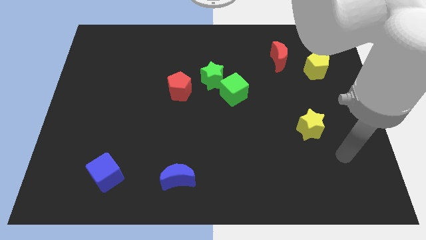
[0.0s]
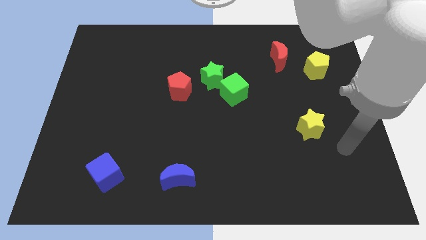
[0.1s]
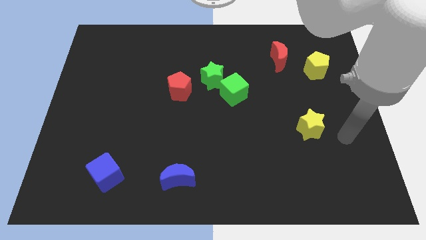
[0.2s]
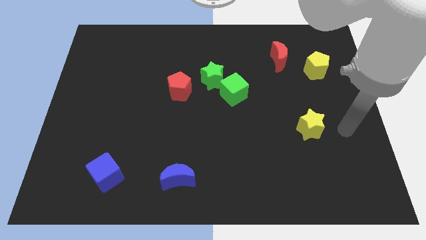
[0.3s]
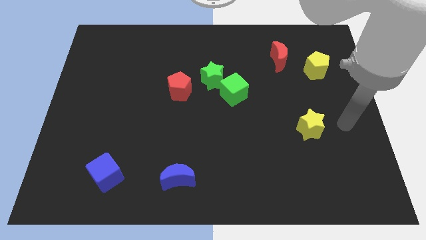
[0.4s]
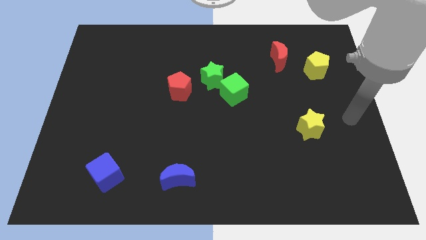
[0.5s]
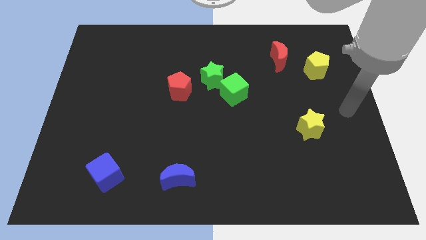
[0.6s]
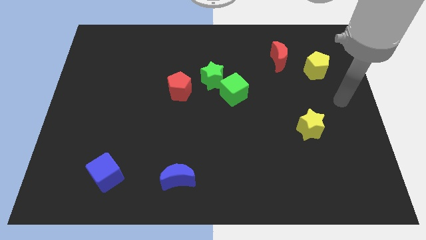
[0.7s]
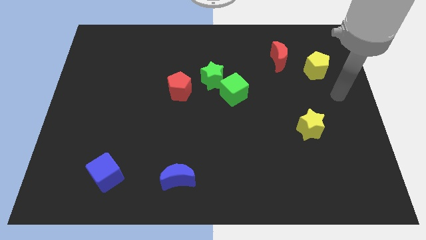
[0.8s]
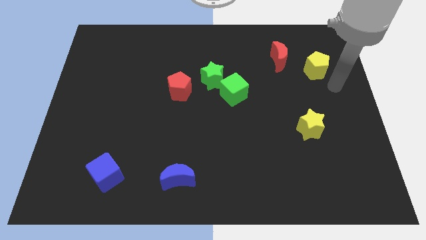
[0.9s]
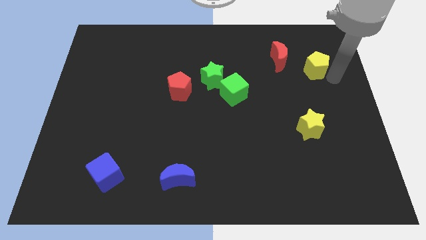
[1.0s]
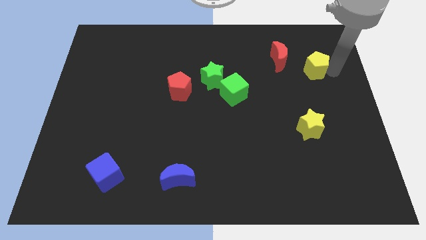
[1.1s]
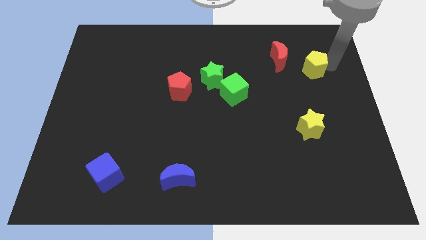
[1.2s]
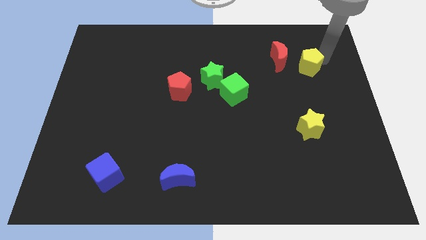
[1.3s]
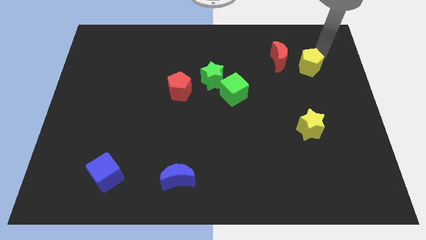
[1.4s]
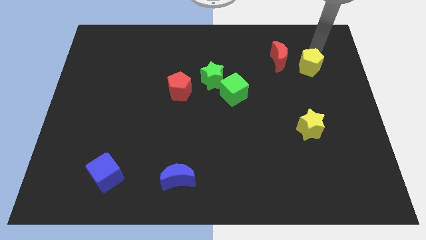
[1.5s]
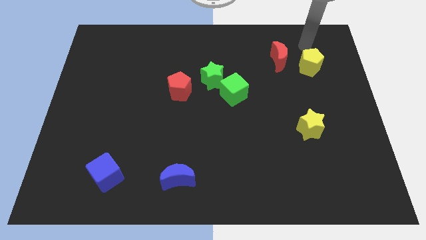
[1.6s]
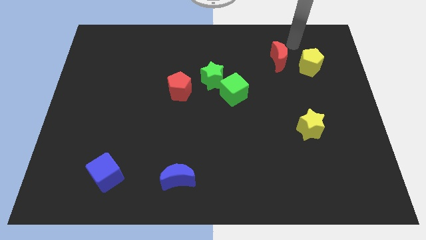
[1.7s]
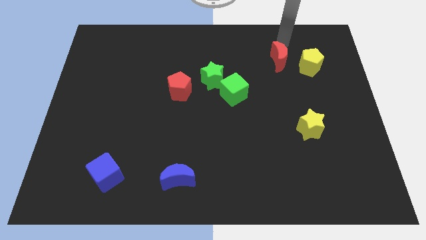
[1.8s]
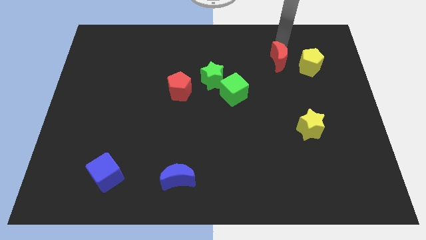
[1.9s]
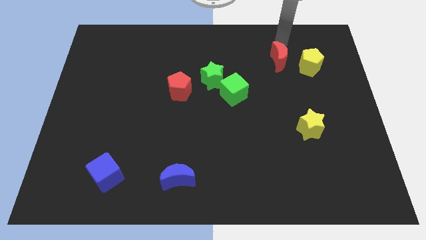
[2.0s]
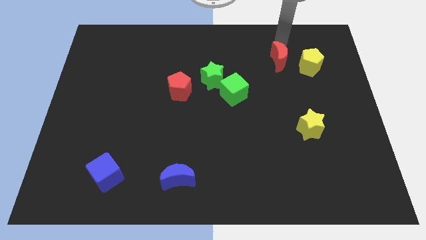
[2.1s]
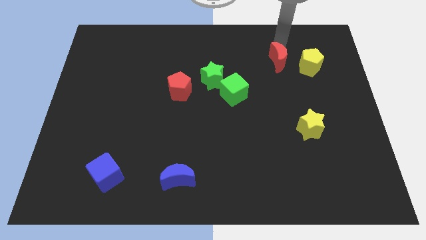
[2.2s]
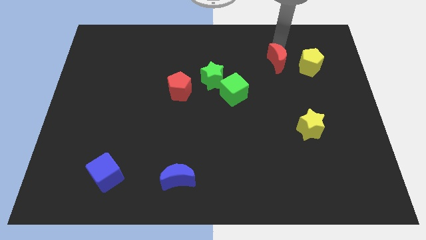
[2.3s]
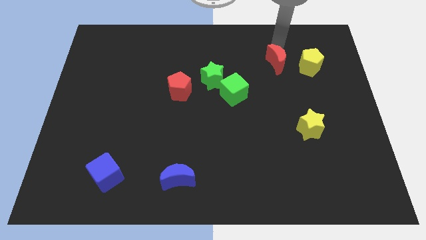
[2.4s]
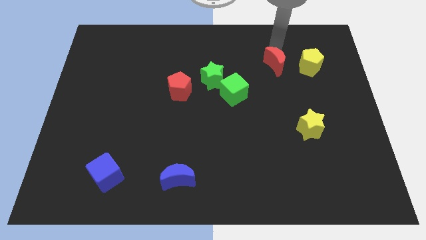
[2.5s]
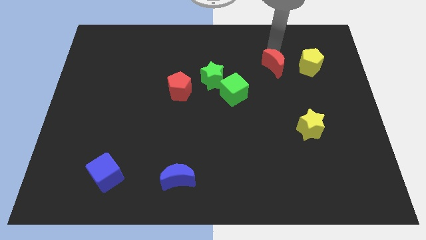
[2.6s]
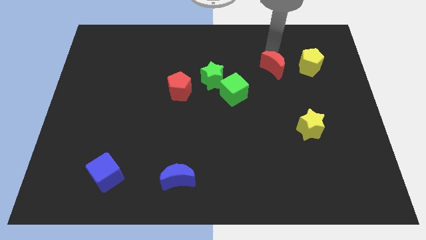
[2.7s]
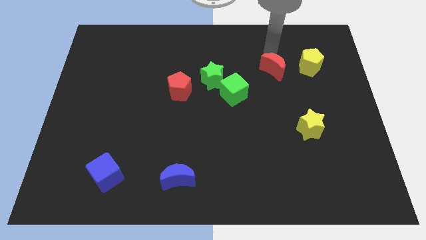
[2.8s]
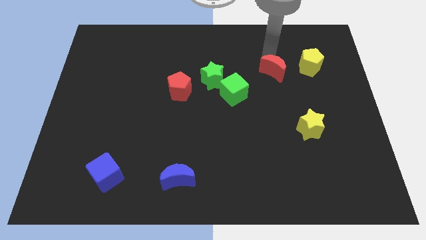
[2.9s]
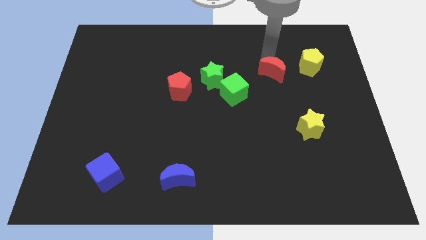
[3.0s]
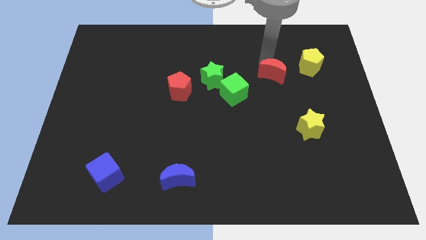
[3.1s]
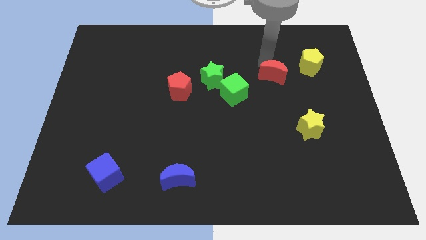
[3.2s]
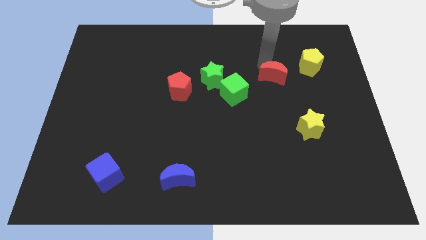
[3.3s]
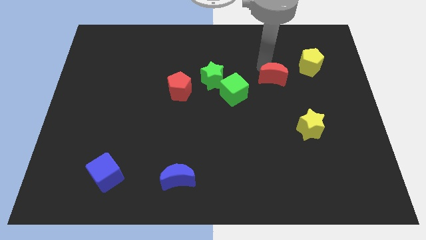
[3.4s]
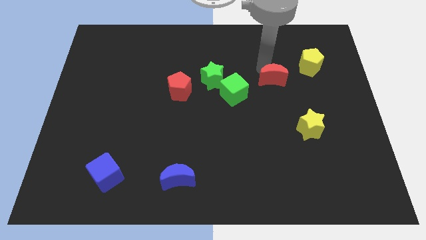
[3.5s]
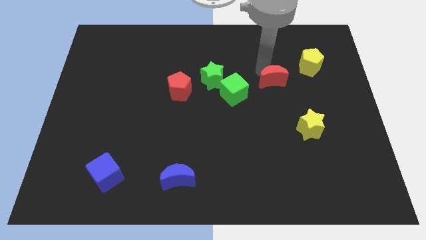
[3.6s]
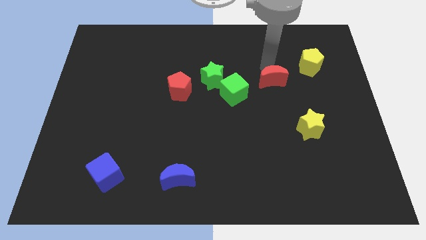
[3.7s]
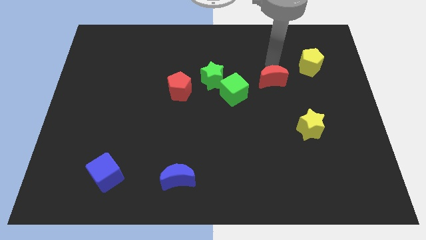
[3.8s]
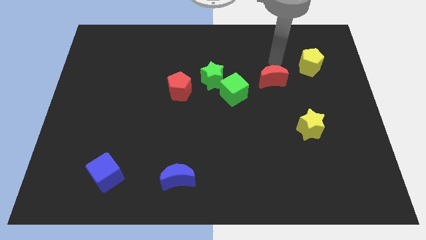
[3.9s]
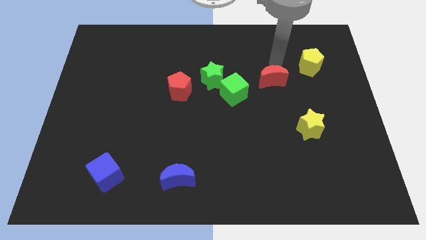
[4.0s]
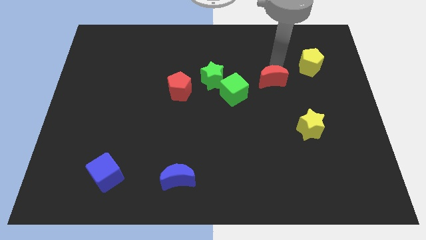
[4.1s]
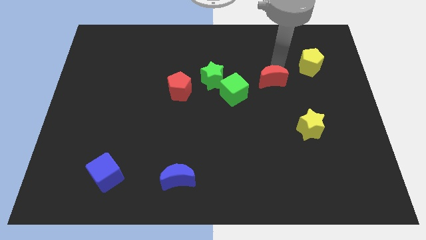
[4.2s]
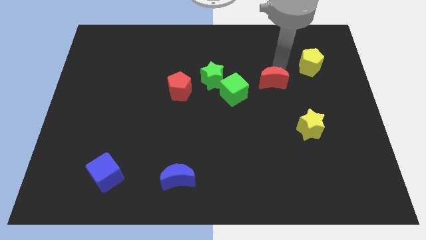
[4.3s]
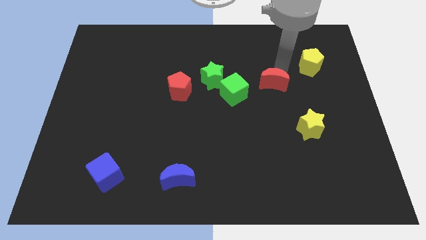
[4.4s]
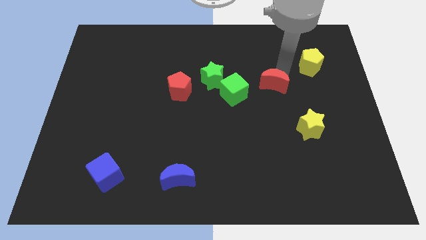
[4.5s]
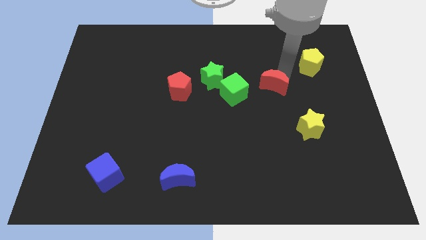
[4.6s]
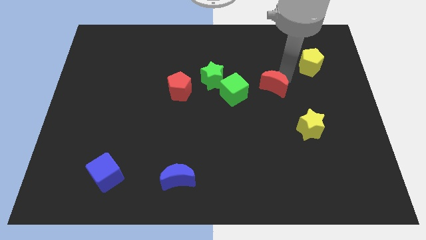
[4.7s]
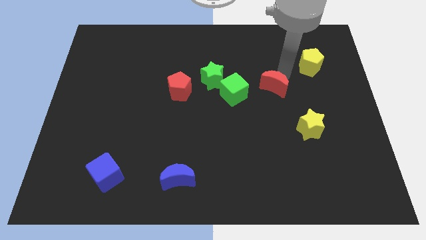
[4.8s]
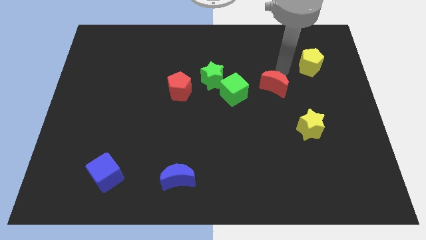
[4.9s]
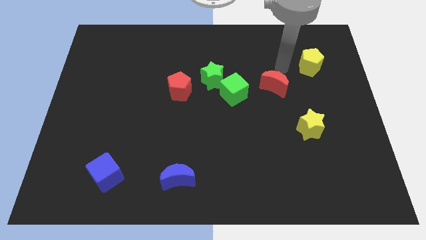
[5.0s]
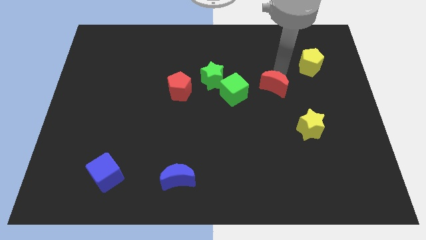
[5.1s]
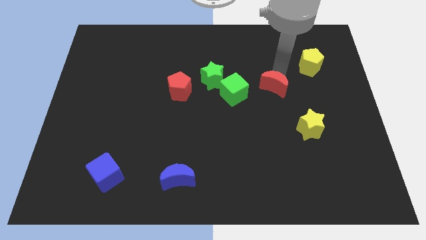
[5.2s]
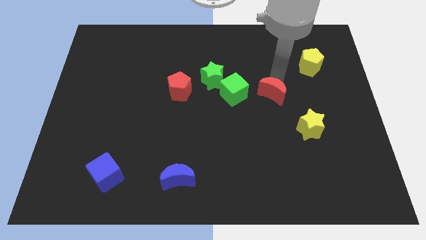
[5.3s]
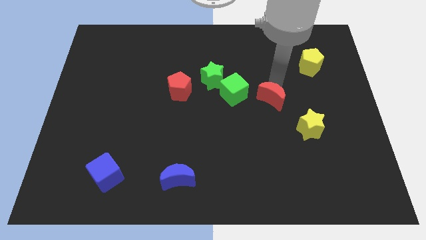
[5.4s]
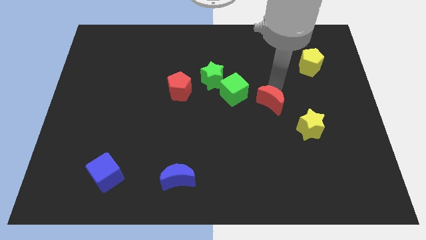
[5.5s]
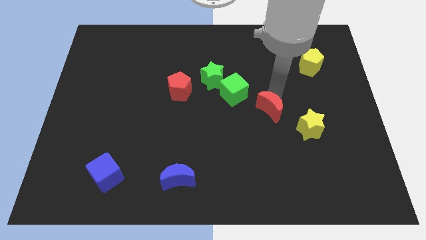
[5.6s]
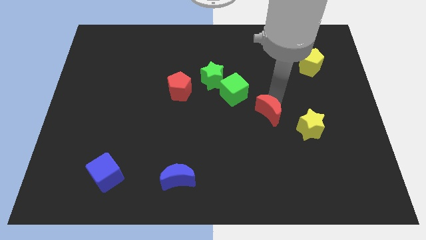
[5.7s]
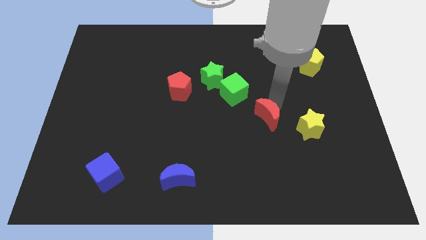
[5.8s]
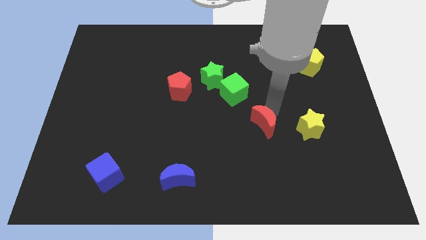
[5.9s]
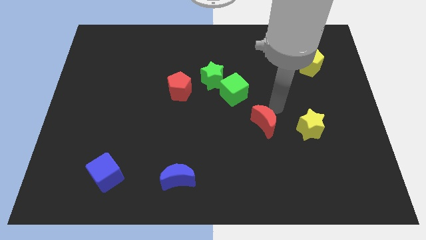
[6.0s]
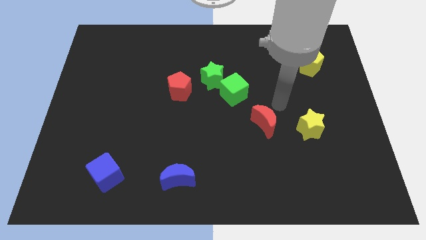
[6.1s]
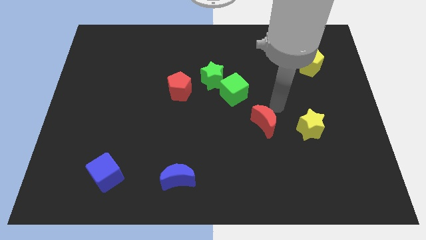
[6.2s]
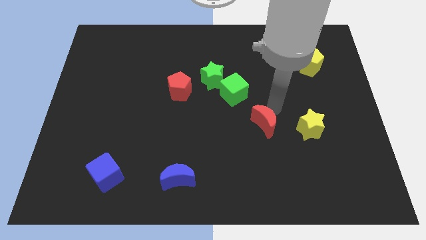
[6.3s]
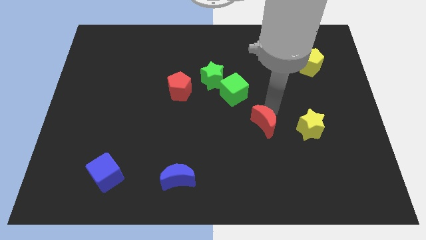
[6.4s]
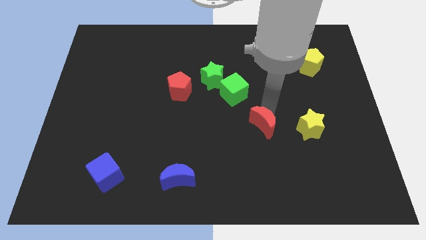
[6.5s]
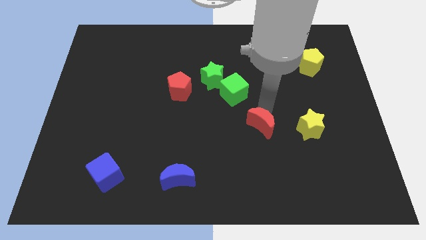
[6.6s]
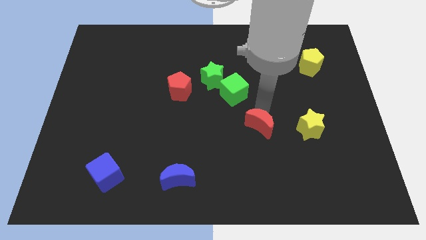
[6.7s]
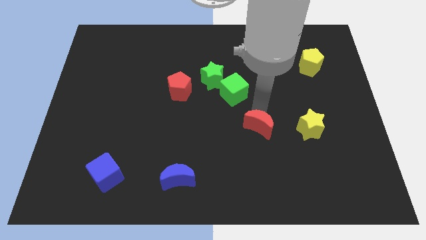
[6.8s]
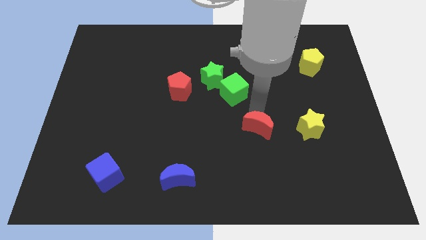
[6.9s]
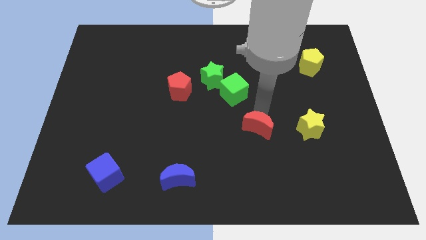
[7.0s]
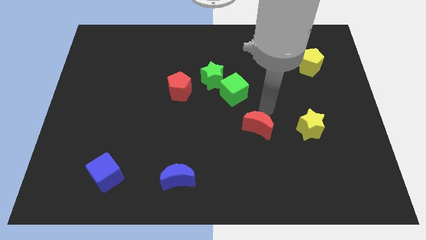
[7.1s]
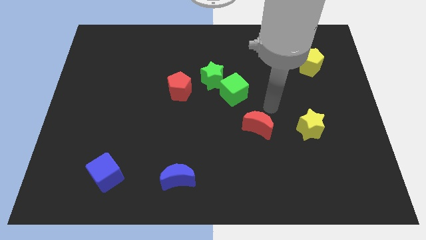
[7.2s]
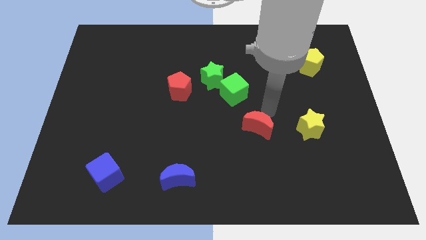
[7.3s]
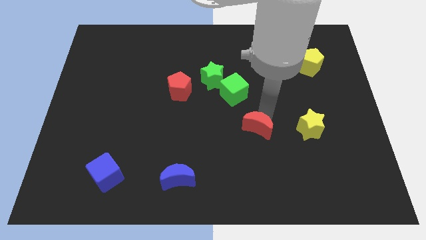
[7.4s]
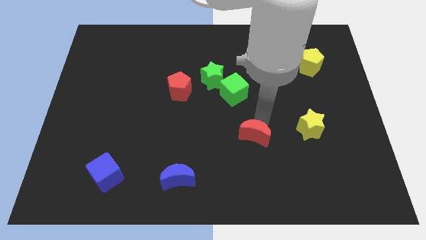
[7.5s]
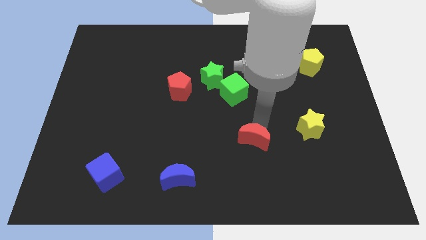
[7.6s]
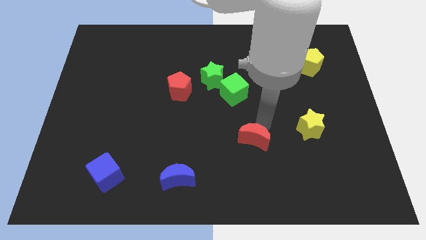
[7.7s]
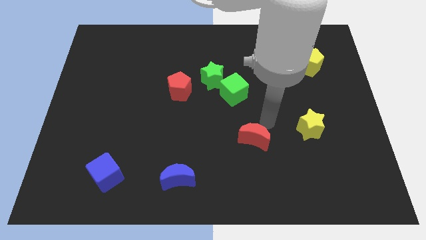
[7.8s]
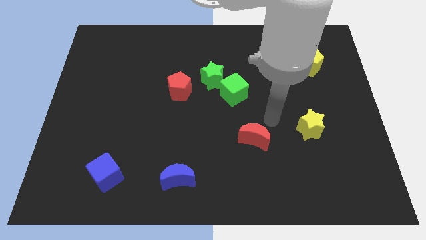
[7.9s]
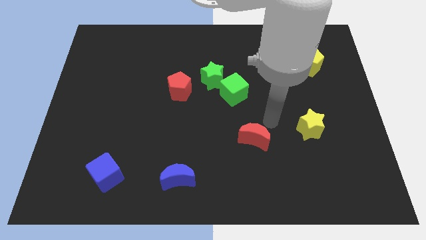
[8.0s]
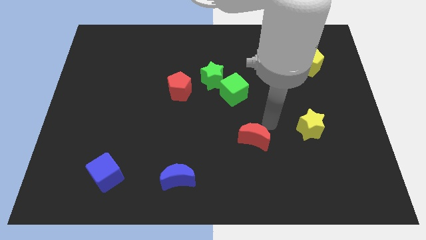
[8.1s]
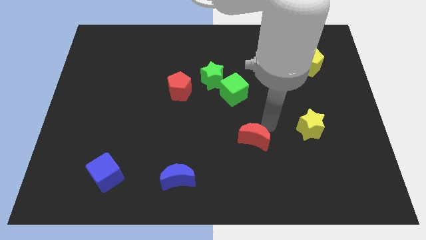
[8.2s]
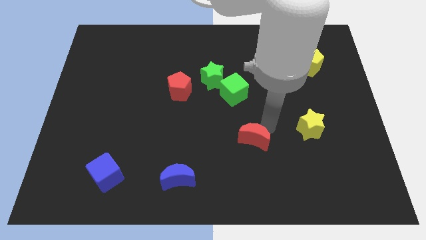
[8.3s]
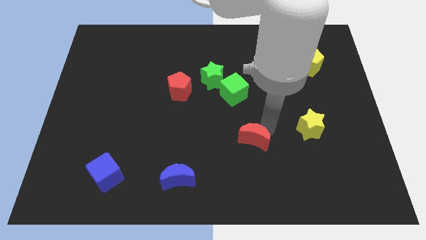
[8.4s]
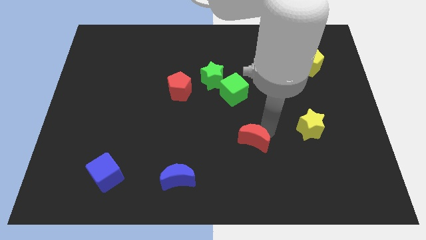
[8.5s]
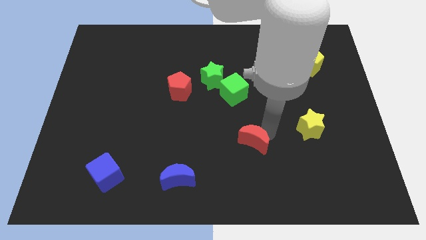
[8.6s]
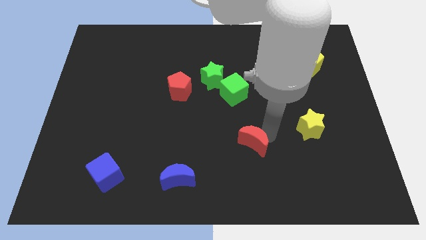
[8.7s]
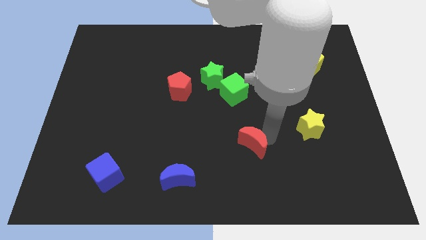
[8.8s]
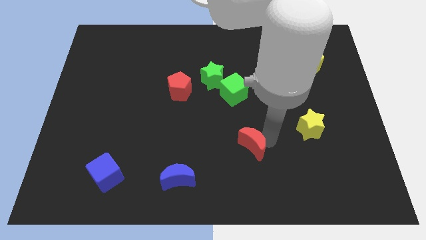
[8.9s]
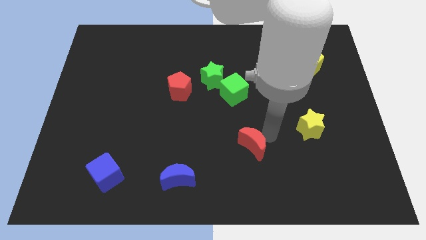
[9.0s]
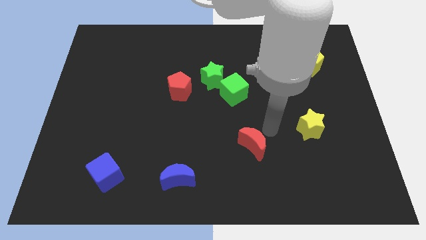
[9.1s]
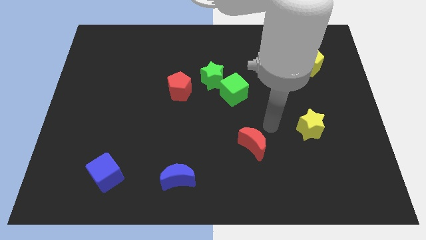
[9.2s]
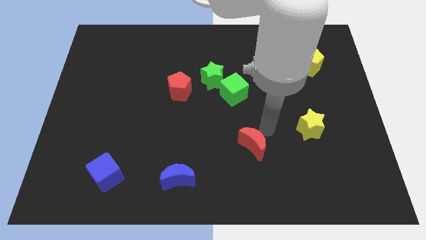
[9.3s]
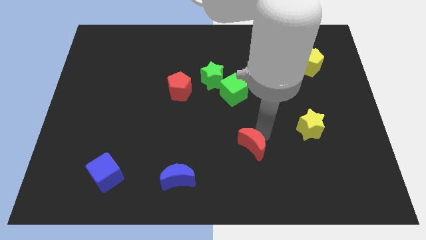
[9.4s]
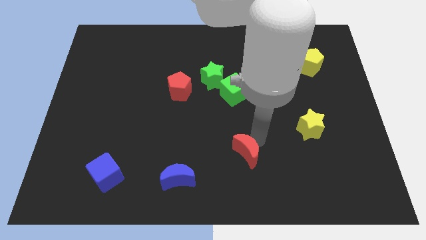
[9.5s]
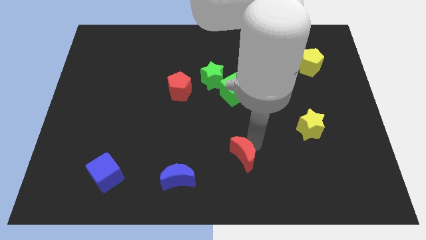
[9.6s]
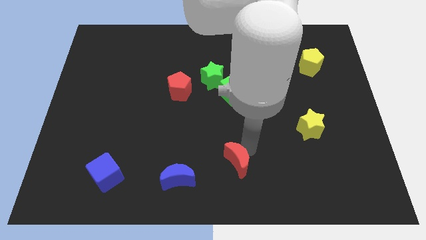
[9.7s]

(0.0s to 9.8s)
push the red moon just right of the blue moon
